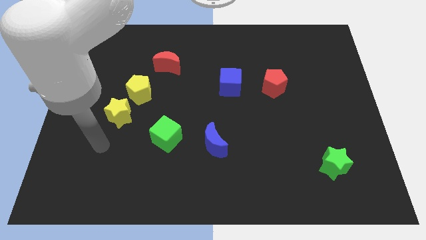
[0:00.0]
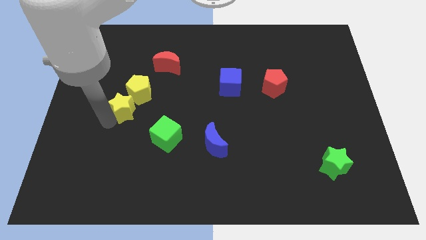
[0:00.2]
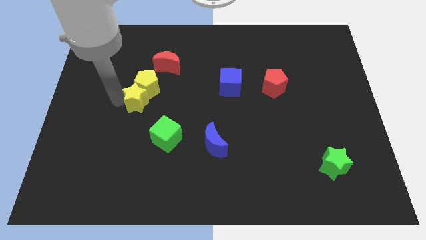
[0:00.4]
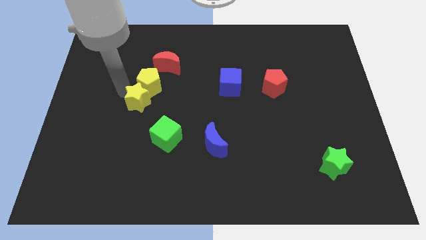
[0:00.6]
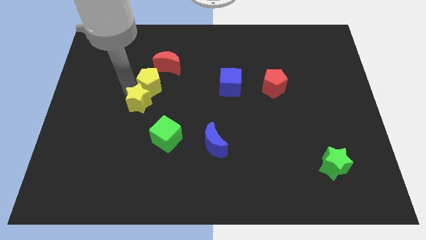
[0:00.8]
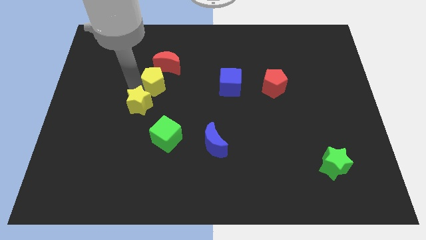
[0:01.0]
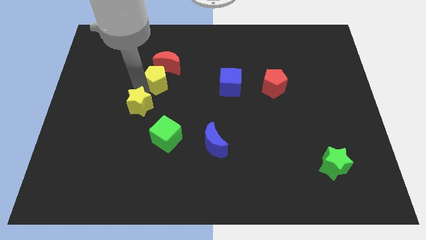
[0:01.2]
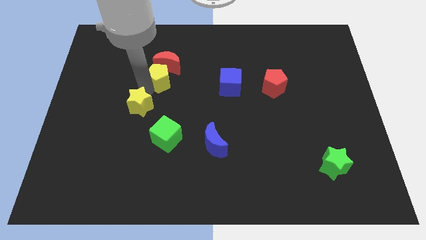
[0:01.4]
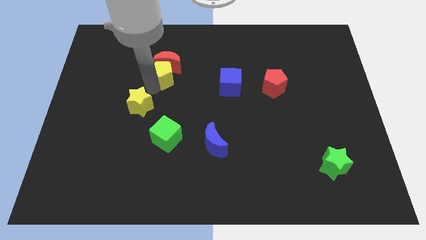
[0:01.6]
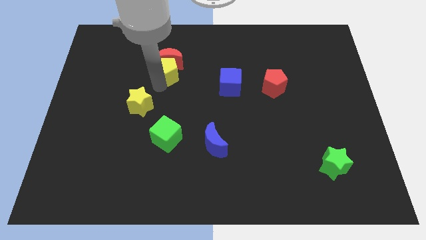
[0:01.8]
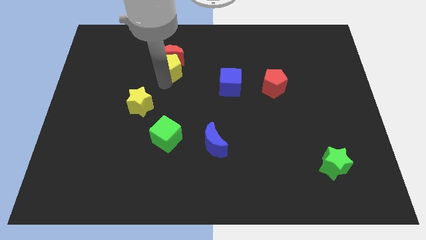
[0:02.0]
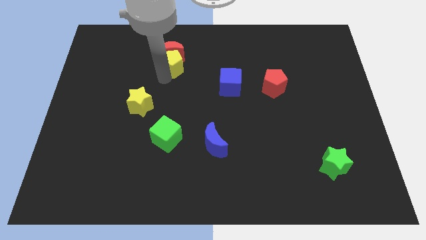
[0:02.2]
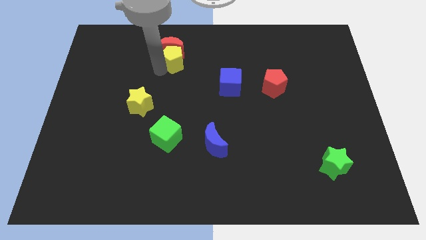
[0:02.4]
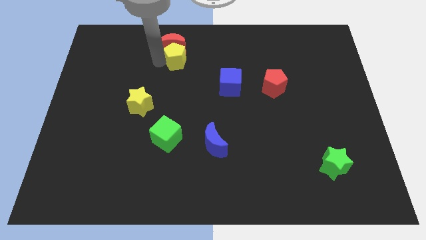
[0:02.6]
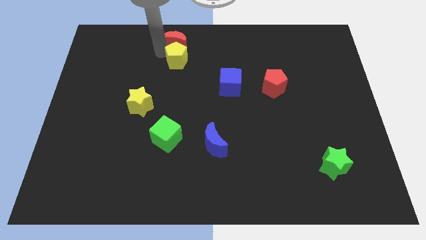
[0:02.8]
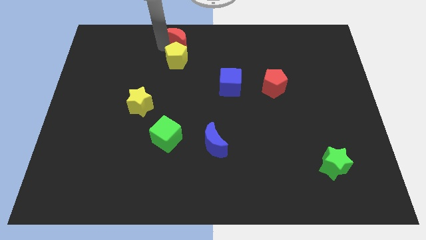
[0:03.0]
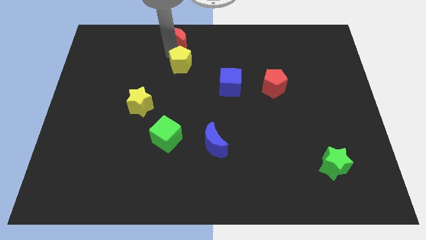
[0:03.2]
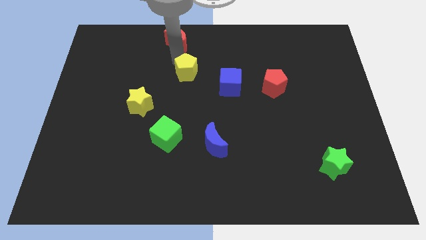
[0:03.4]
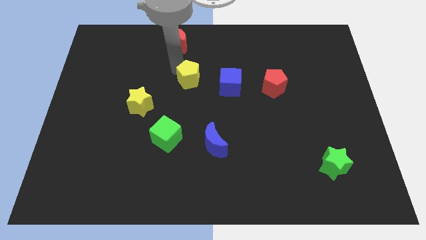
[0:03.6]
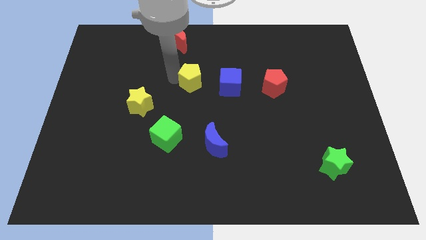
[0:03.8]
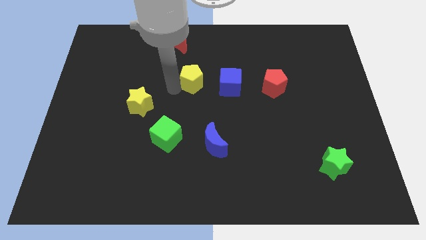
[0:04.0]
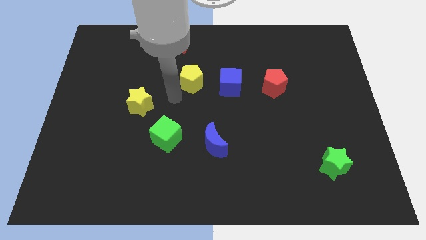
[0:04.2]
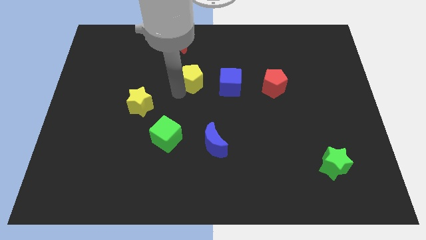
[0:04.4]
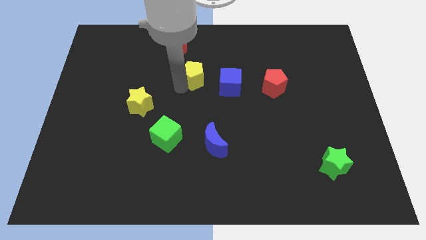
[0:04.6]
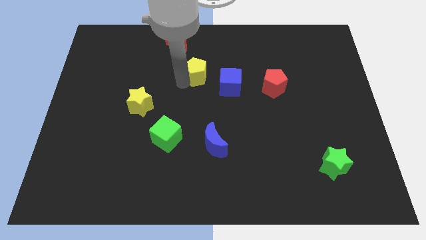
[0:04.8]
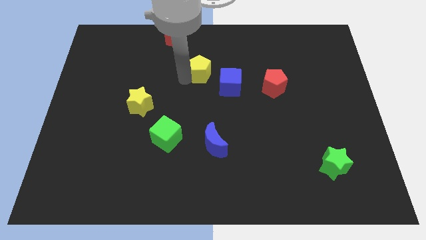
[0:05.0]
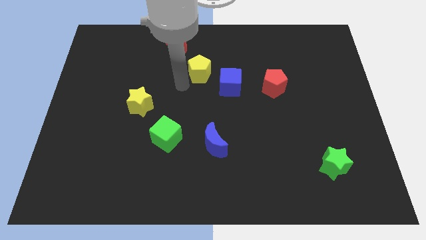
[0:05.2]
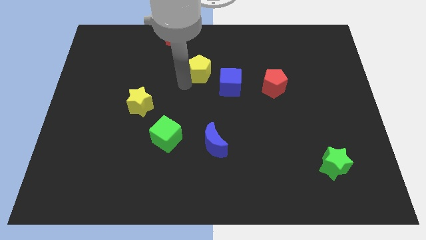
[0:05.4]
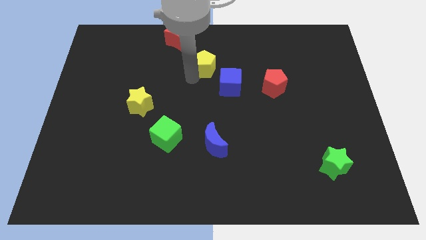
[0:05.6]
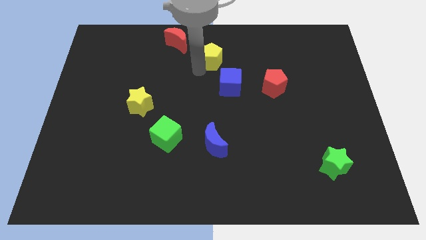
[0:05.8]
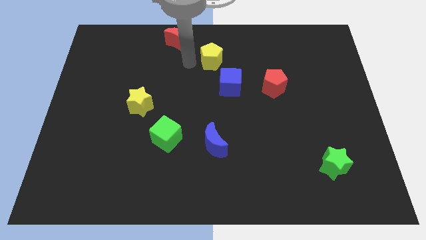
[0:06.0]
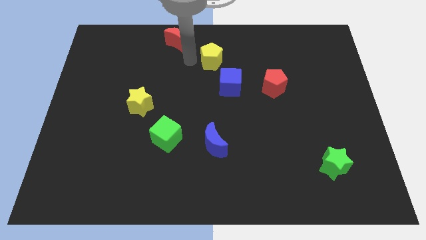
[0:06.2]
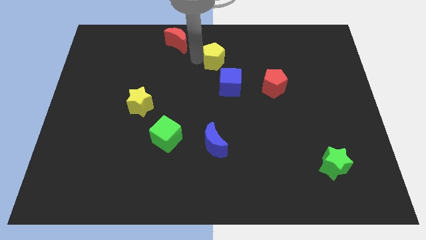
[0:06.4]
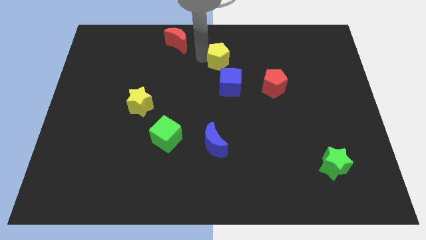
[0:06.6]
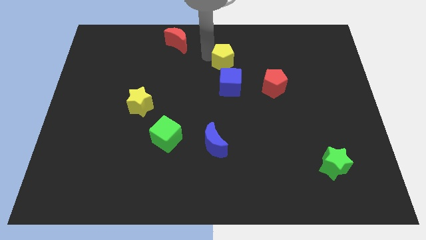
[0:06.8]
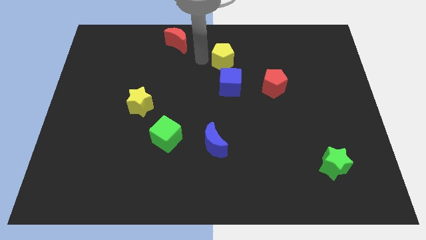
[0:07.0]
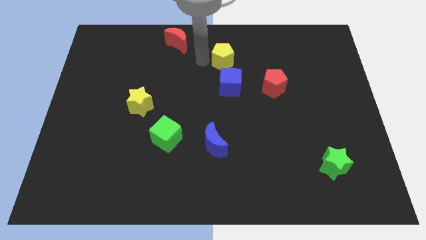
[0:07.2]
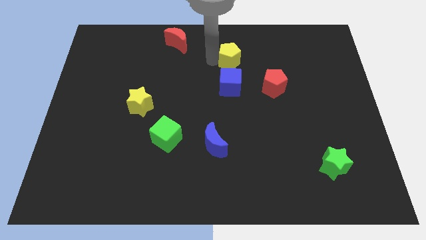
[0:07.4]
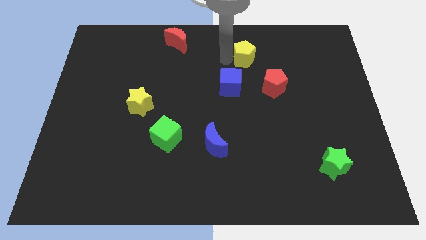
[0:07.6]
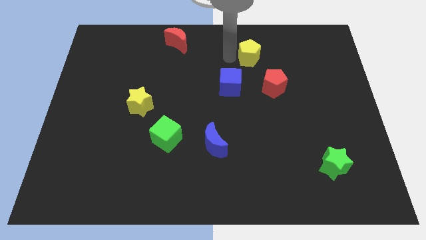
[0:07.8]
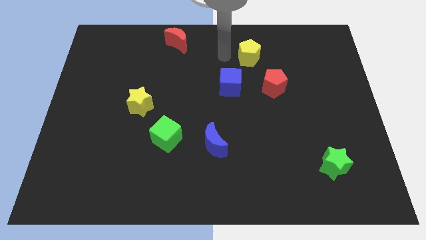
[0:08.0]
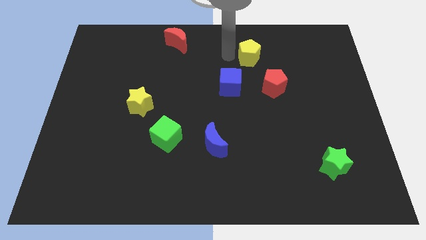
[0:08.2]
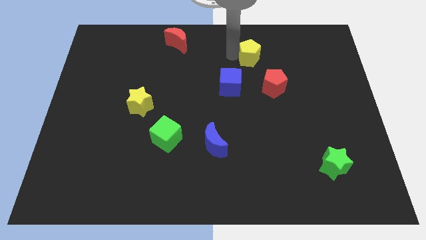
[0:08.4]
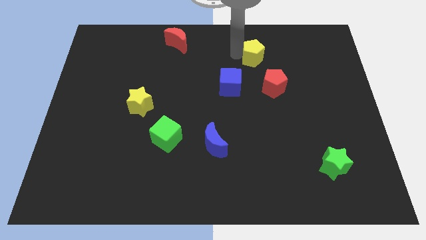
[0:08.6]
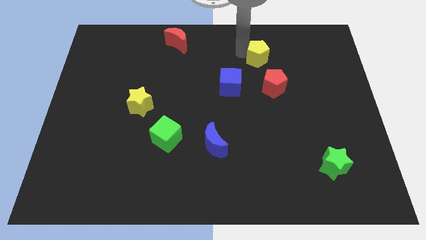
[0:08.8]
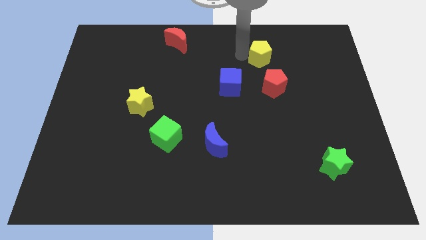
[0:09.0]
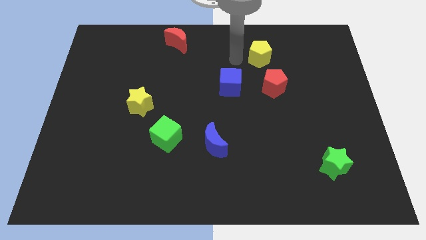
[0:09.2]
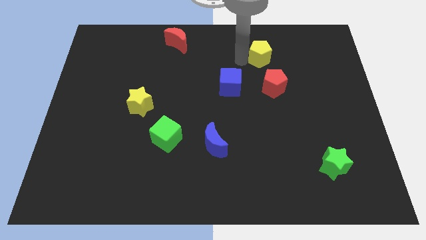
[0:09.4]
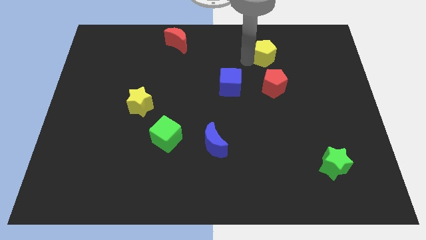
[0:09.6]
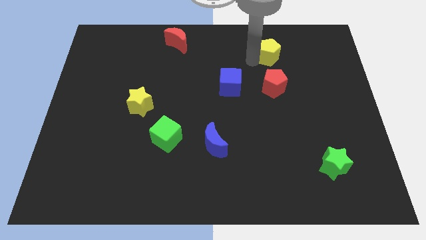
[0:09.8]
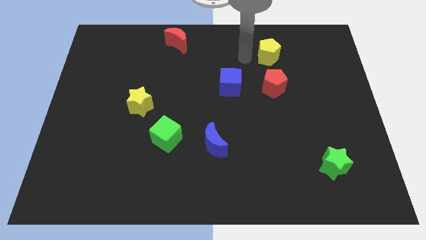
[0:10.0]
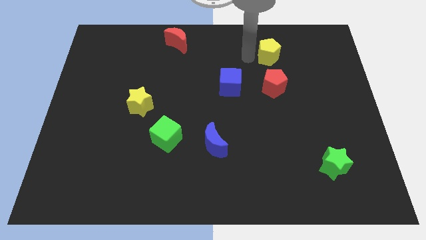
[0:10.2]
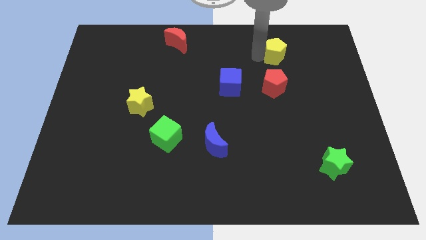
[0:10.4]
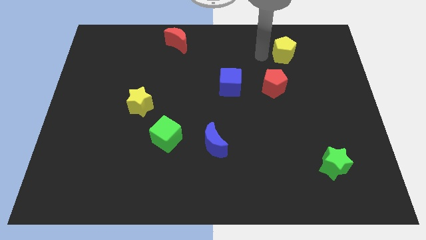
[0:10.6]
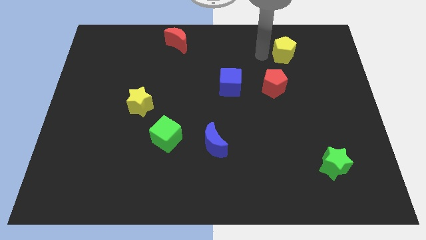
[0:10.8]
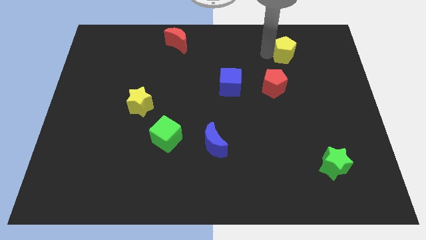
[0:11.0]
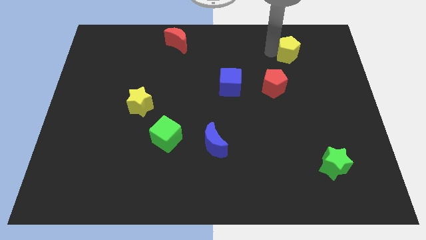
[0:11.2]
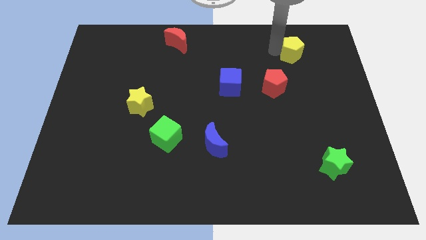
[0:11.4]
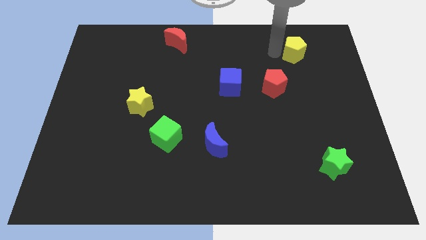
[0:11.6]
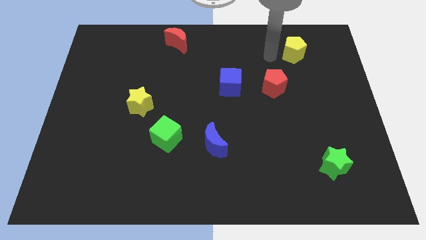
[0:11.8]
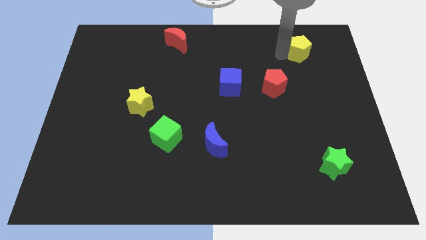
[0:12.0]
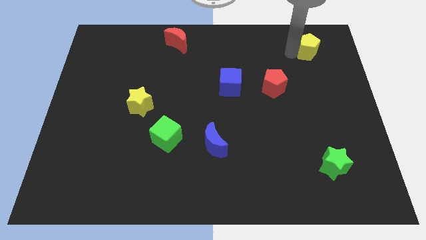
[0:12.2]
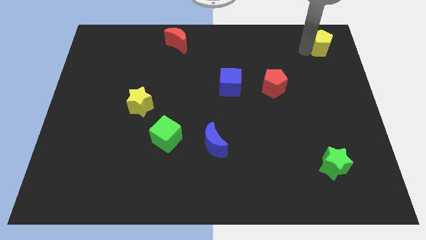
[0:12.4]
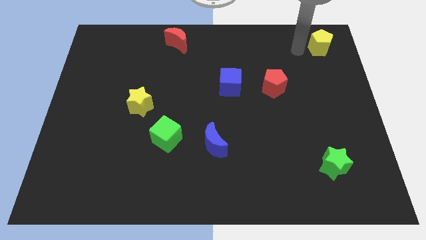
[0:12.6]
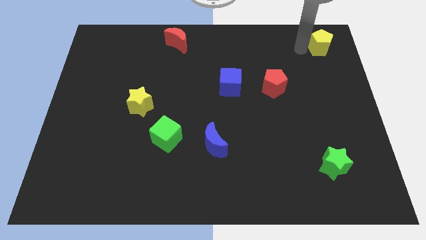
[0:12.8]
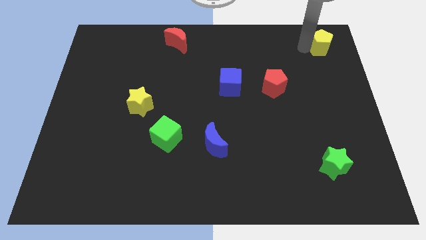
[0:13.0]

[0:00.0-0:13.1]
push the yellow pentagon to the upper right corner

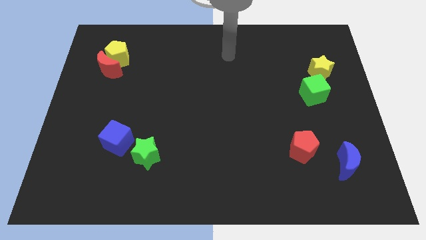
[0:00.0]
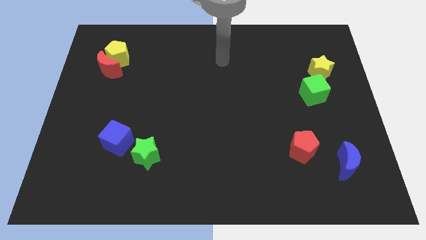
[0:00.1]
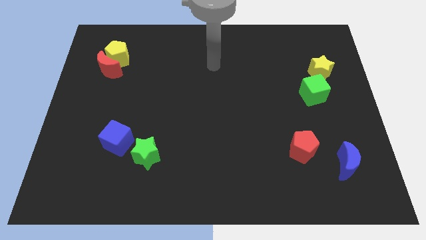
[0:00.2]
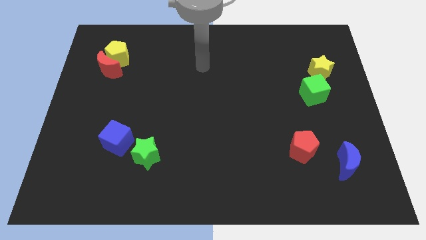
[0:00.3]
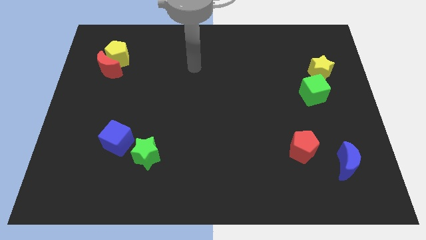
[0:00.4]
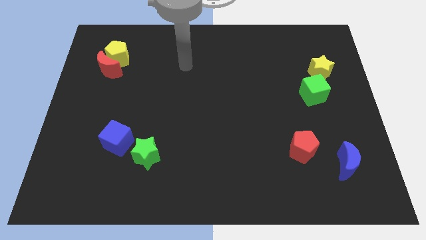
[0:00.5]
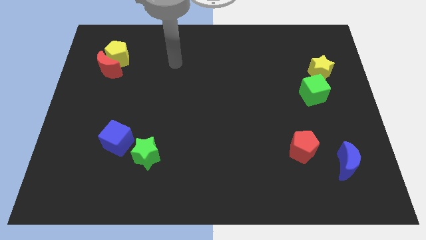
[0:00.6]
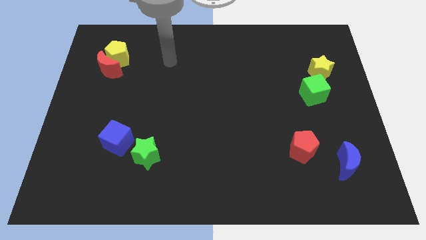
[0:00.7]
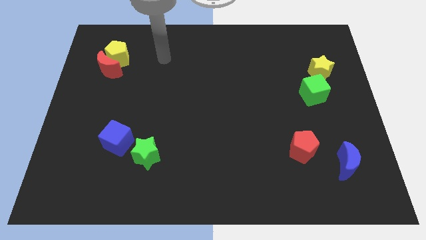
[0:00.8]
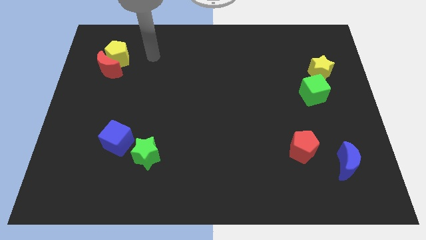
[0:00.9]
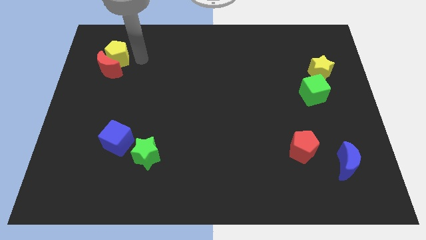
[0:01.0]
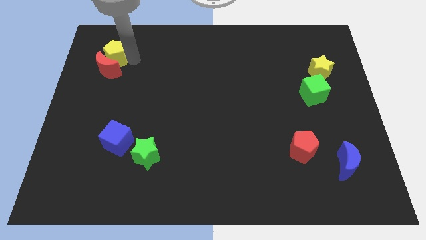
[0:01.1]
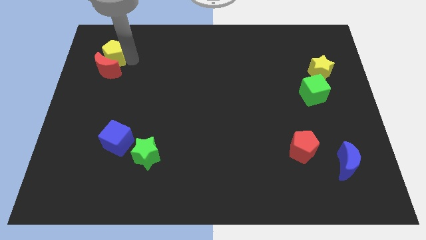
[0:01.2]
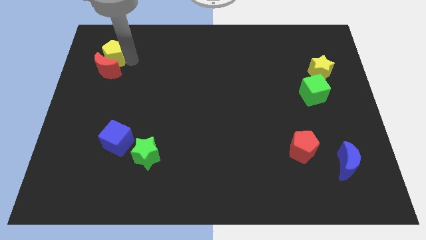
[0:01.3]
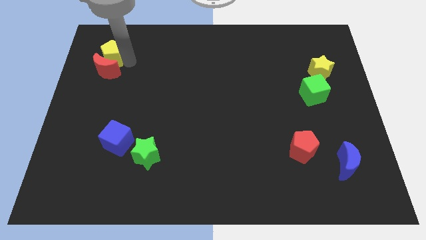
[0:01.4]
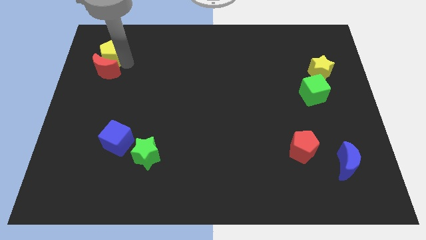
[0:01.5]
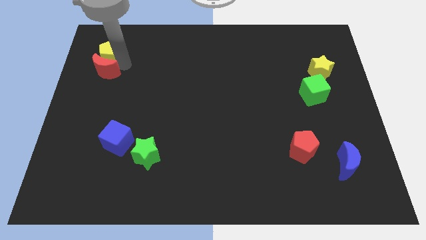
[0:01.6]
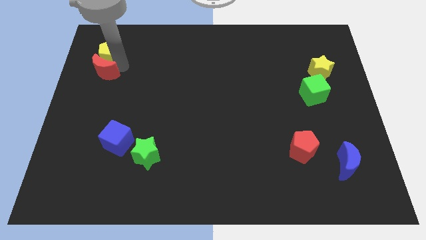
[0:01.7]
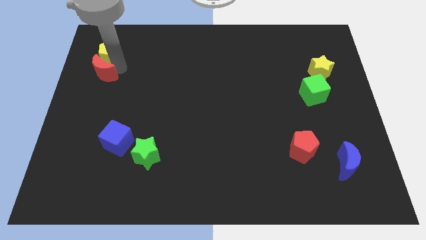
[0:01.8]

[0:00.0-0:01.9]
slide the red moon to the left side of the board
